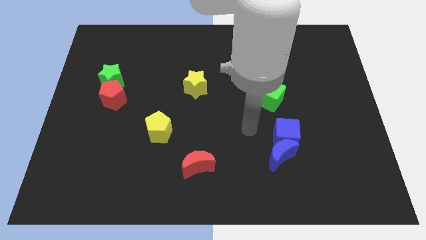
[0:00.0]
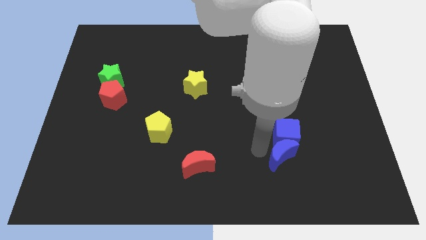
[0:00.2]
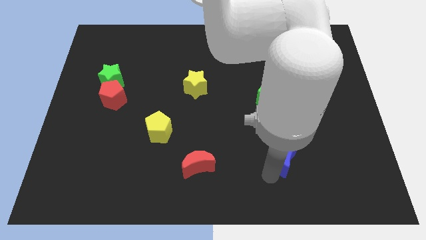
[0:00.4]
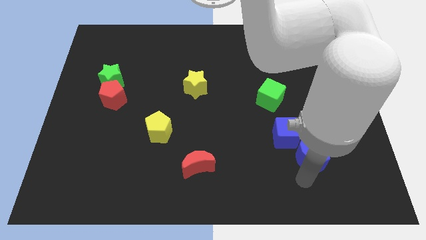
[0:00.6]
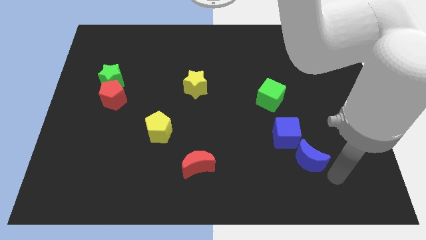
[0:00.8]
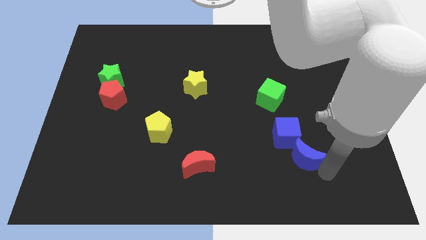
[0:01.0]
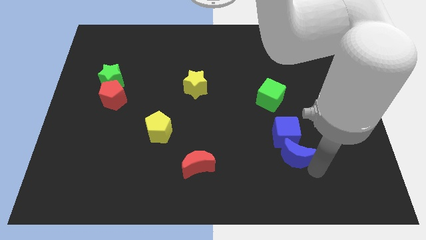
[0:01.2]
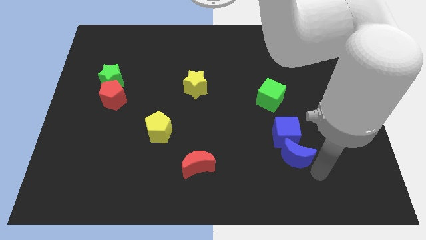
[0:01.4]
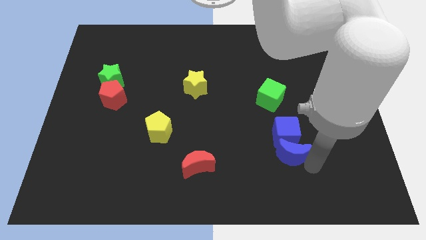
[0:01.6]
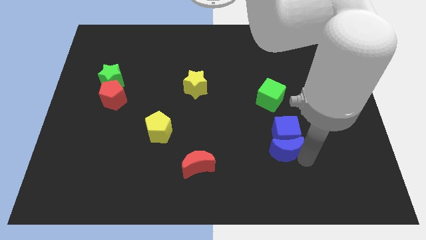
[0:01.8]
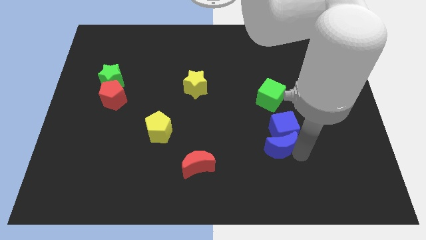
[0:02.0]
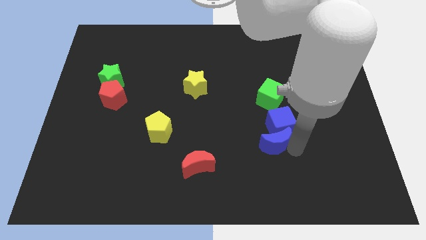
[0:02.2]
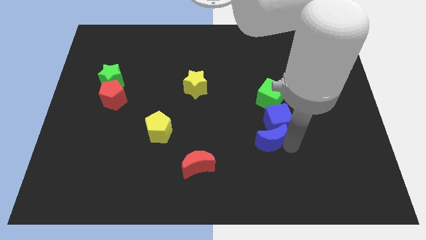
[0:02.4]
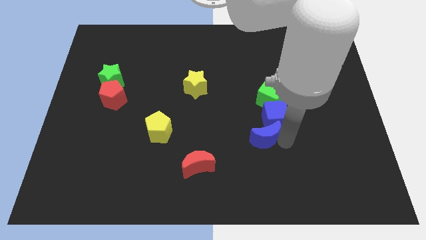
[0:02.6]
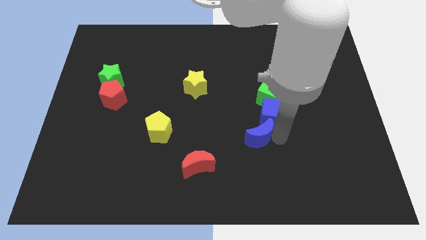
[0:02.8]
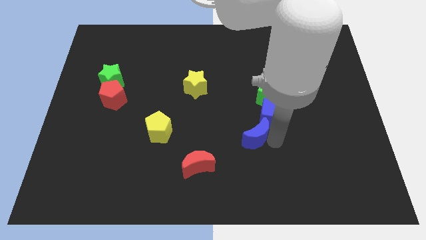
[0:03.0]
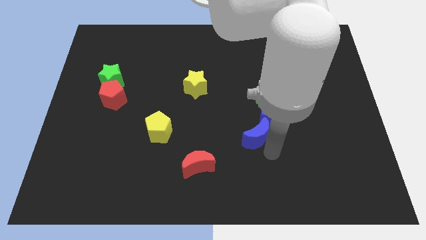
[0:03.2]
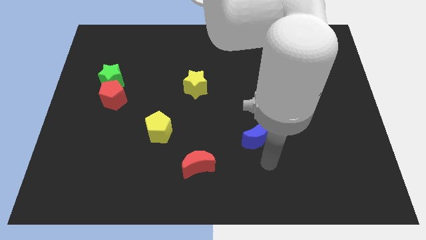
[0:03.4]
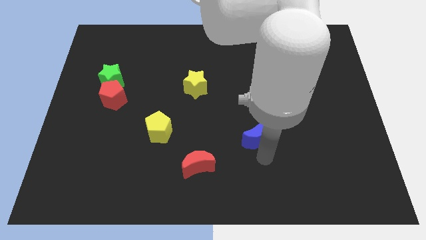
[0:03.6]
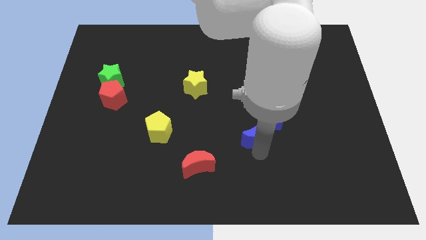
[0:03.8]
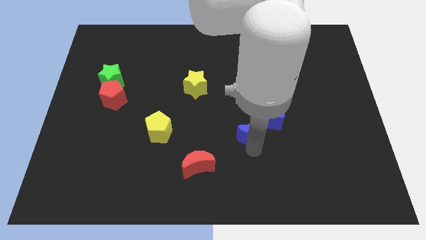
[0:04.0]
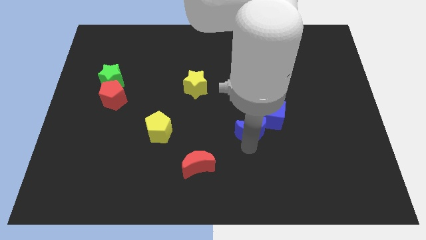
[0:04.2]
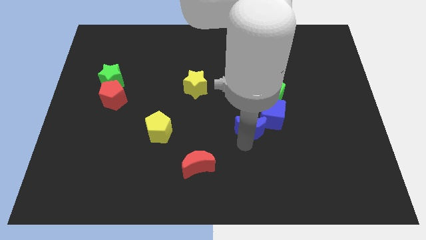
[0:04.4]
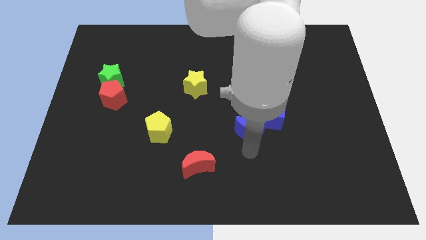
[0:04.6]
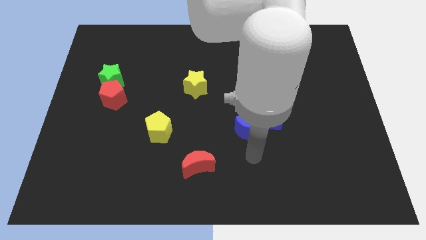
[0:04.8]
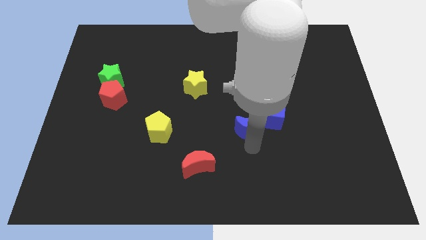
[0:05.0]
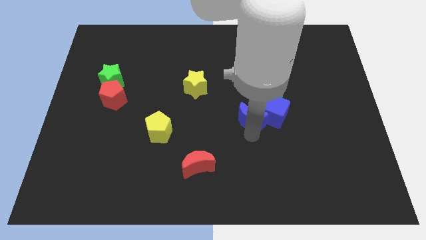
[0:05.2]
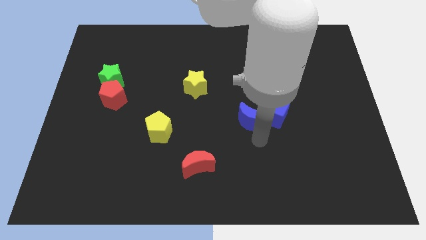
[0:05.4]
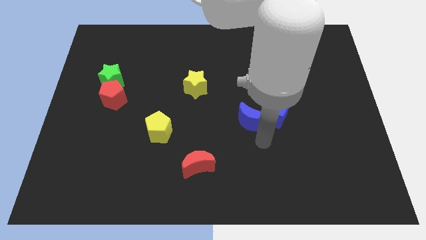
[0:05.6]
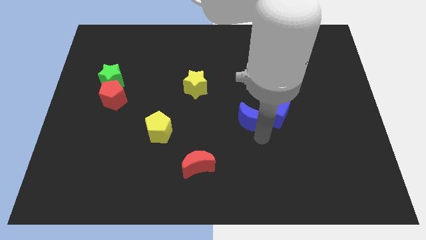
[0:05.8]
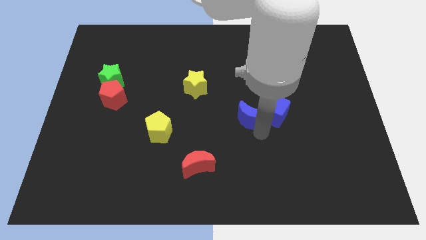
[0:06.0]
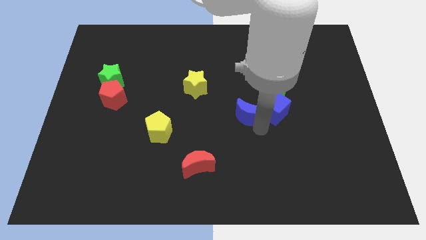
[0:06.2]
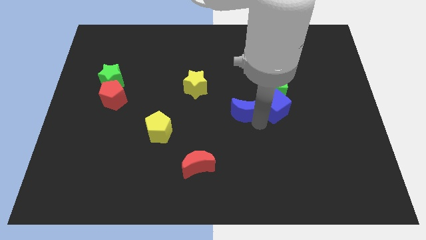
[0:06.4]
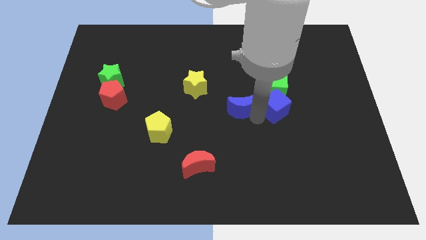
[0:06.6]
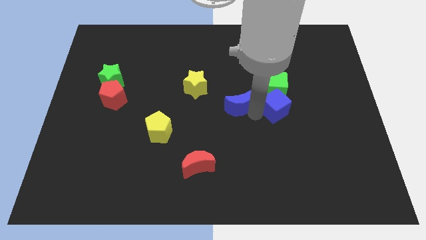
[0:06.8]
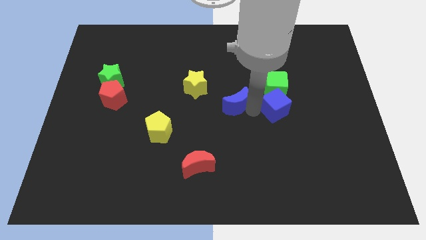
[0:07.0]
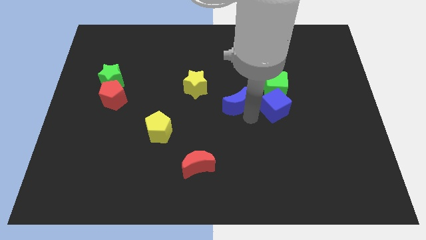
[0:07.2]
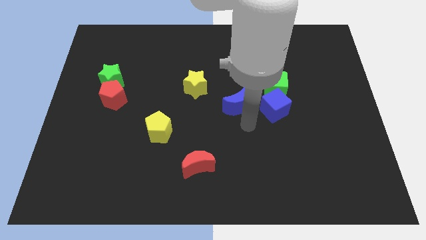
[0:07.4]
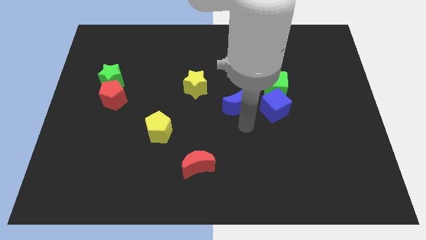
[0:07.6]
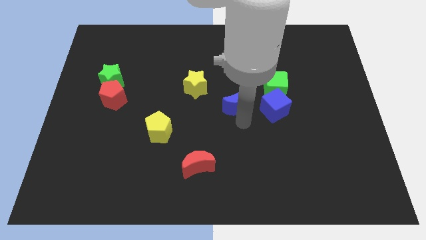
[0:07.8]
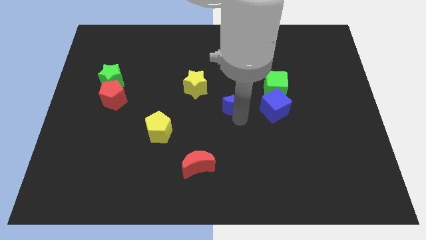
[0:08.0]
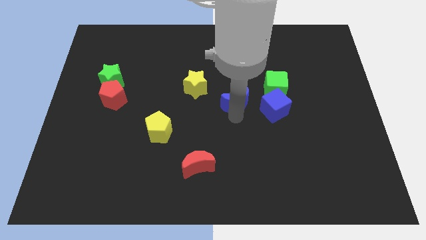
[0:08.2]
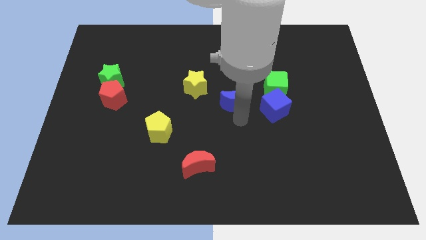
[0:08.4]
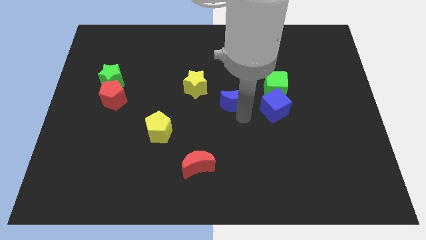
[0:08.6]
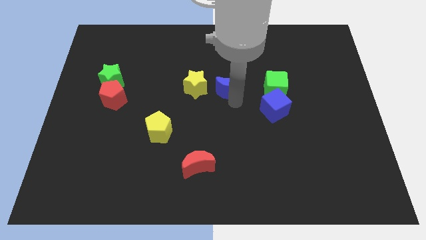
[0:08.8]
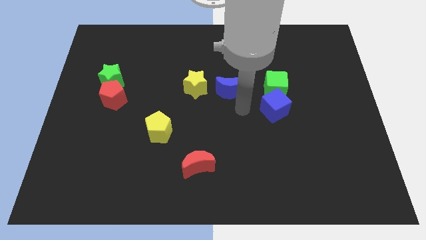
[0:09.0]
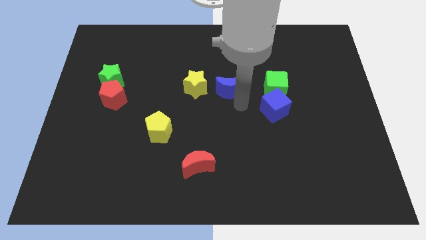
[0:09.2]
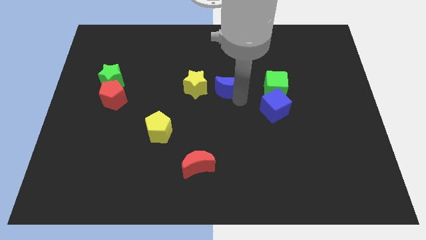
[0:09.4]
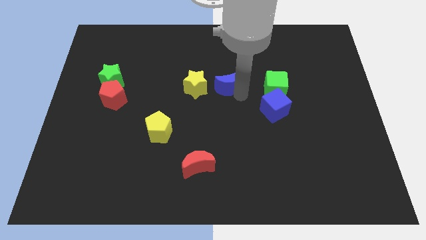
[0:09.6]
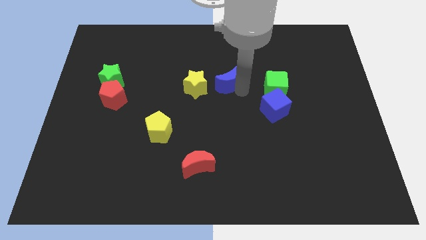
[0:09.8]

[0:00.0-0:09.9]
move the blue moon to the top right of the yellow star

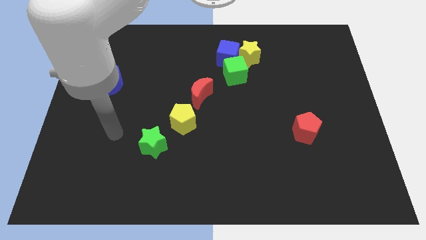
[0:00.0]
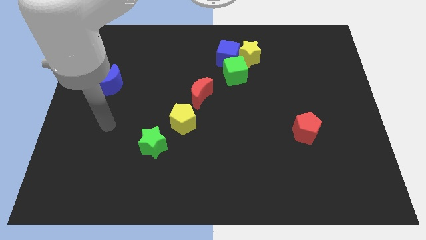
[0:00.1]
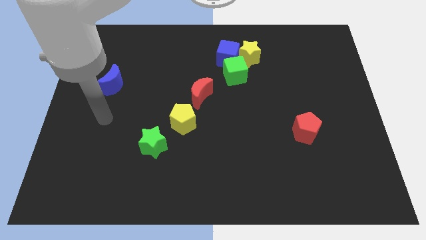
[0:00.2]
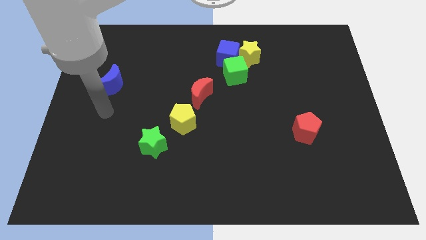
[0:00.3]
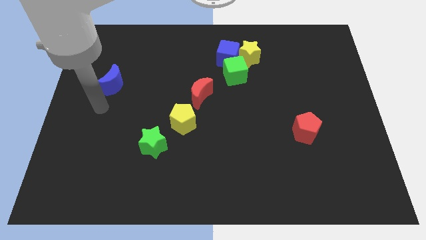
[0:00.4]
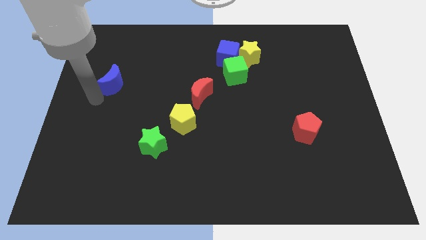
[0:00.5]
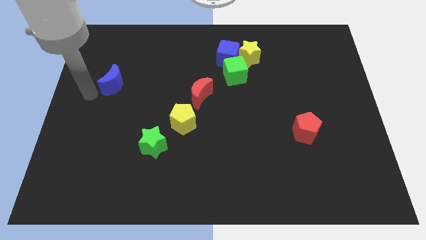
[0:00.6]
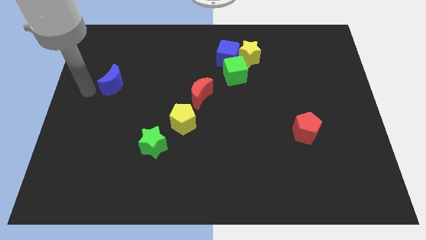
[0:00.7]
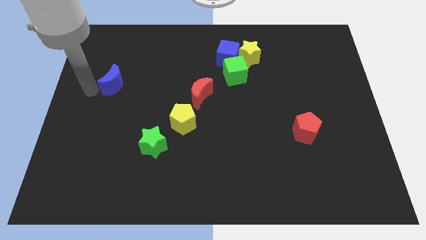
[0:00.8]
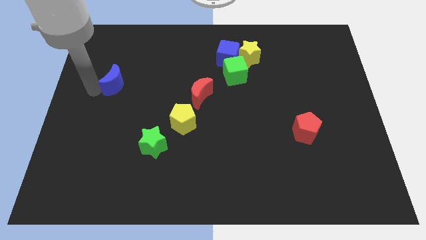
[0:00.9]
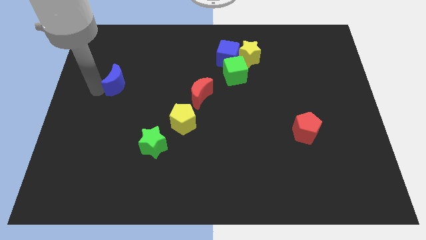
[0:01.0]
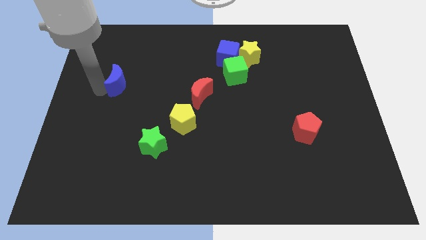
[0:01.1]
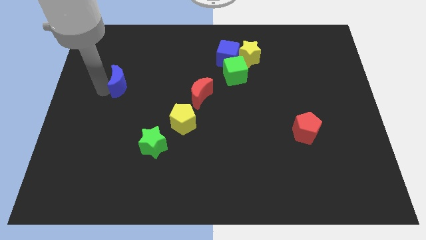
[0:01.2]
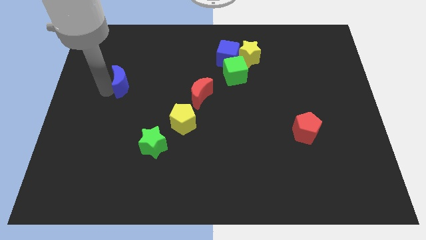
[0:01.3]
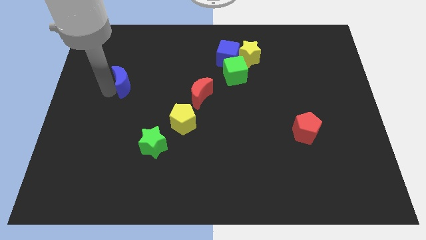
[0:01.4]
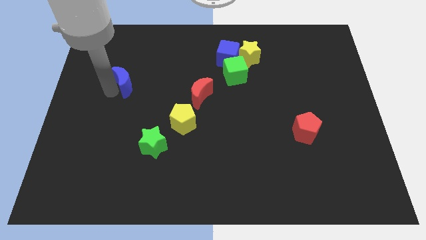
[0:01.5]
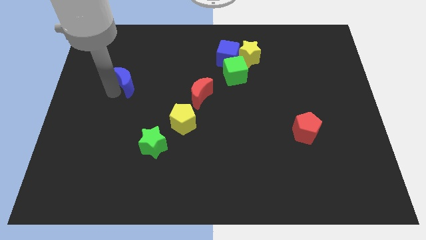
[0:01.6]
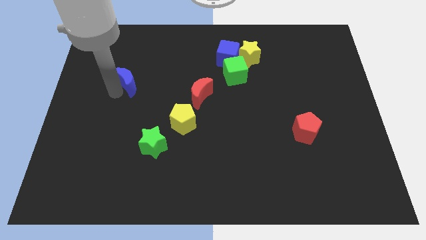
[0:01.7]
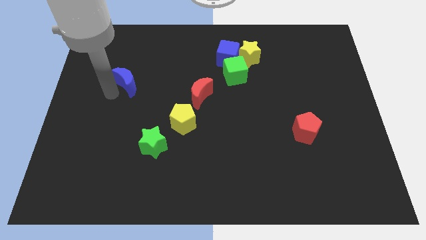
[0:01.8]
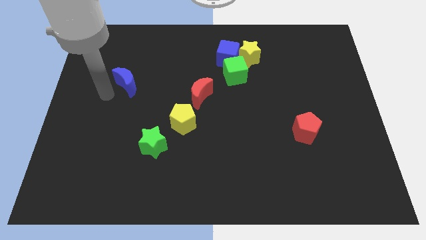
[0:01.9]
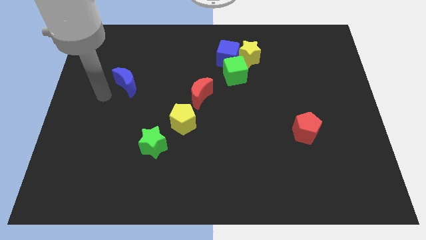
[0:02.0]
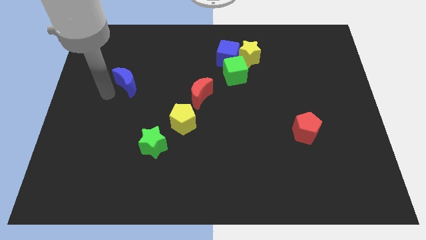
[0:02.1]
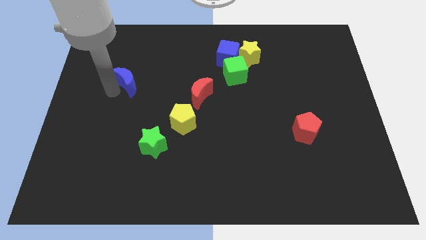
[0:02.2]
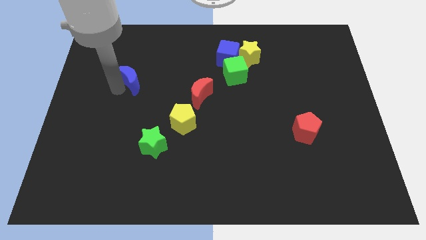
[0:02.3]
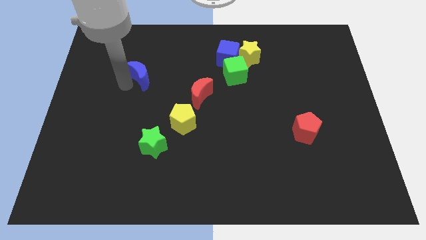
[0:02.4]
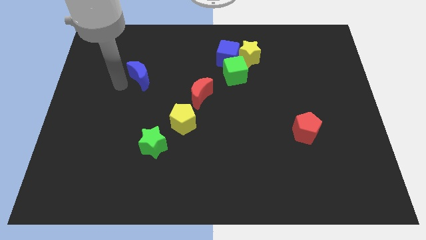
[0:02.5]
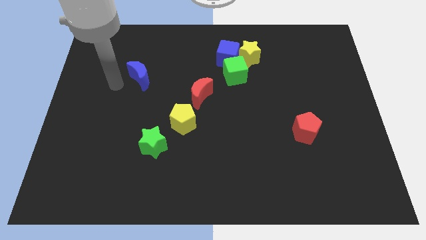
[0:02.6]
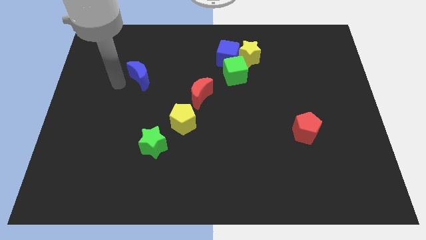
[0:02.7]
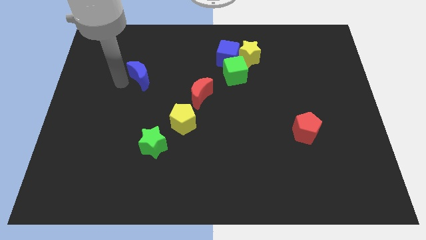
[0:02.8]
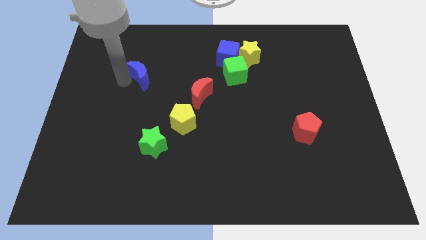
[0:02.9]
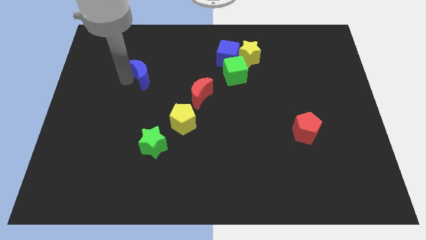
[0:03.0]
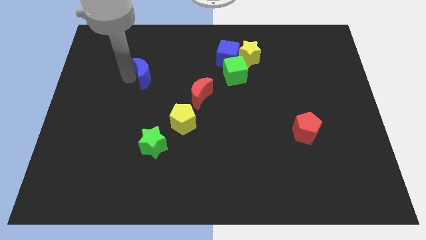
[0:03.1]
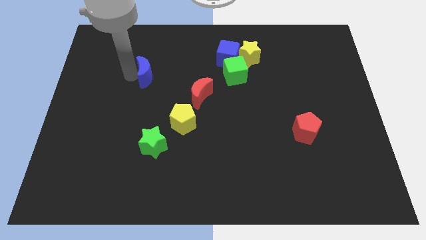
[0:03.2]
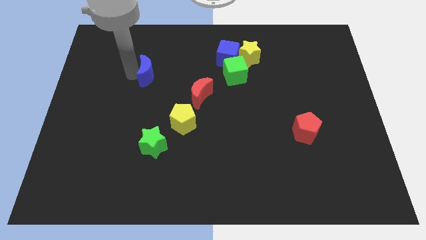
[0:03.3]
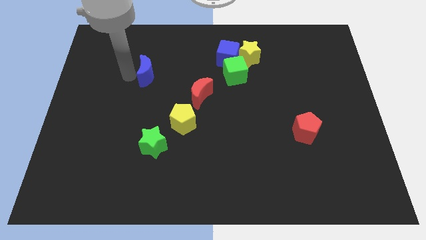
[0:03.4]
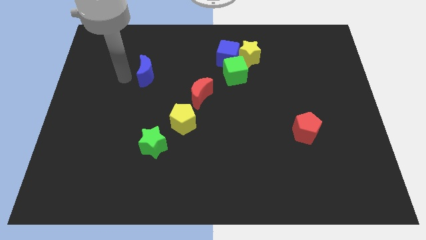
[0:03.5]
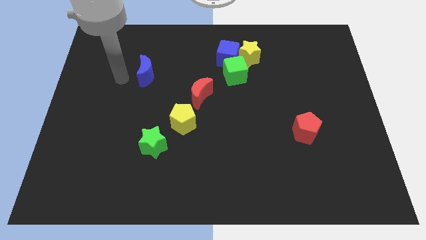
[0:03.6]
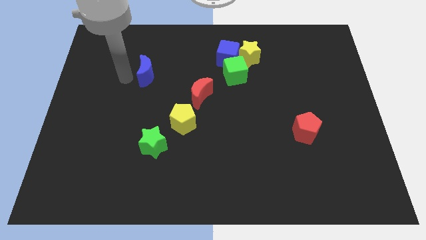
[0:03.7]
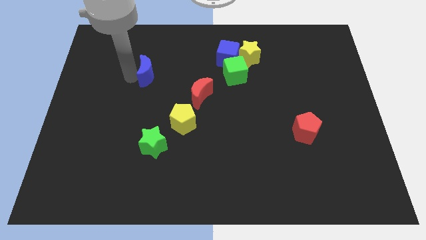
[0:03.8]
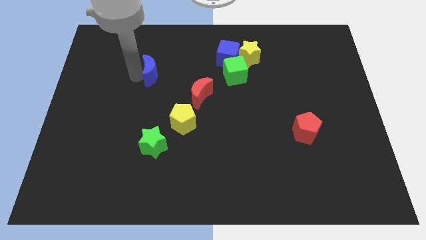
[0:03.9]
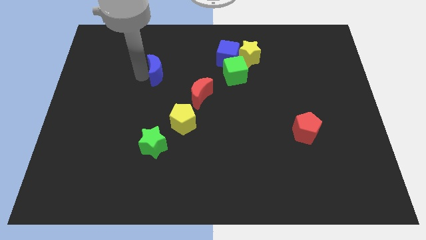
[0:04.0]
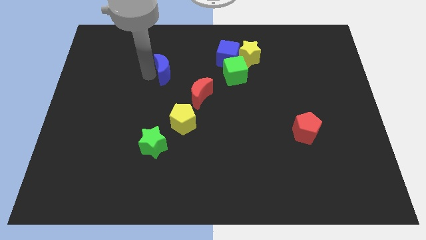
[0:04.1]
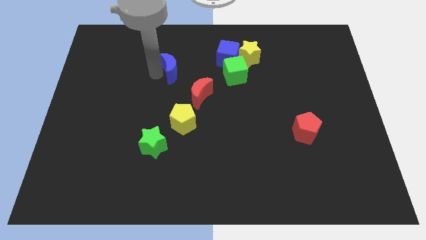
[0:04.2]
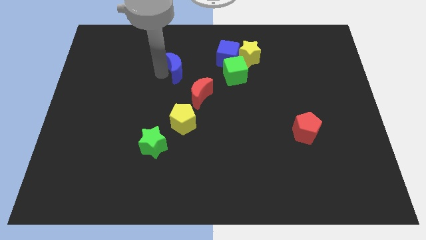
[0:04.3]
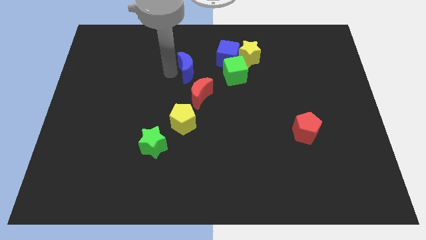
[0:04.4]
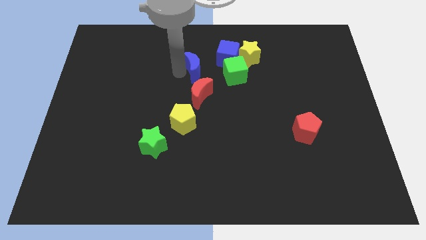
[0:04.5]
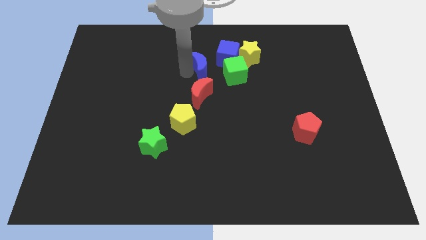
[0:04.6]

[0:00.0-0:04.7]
slide the blue moon to the top left of the green cube
